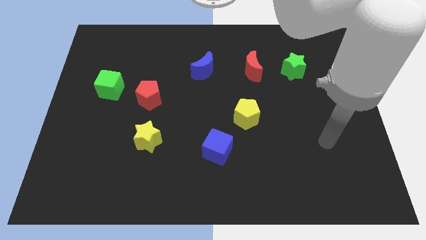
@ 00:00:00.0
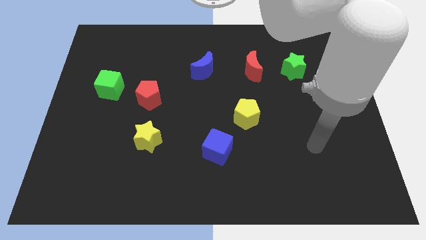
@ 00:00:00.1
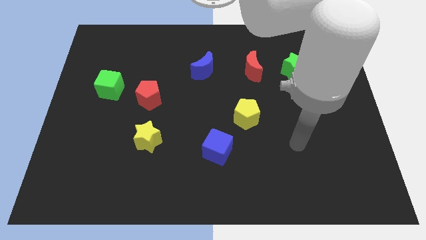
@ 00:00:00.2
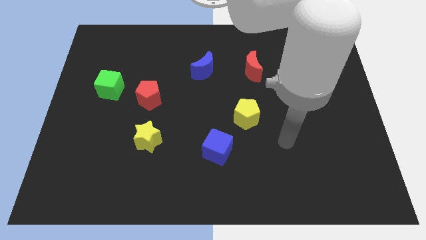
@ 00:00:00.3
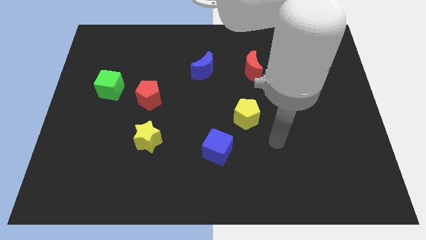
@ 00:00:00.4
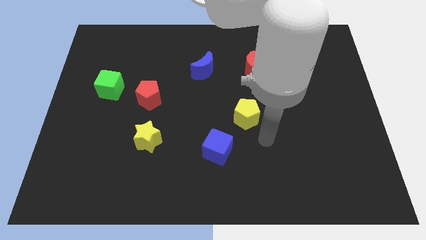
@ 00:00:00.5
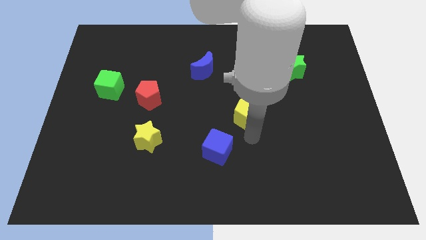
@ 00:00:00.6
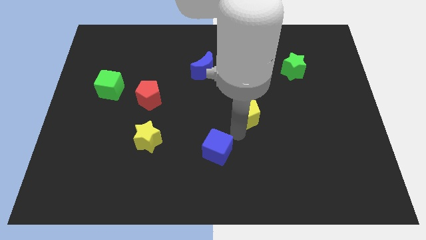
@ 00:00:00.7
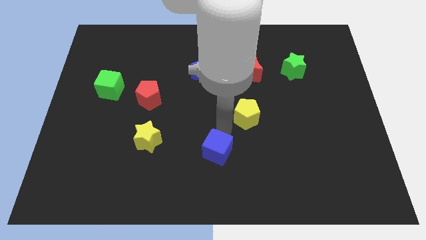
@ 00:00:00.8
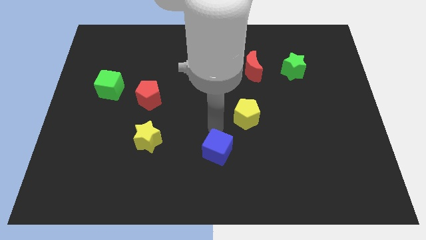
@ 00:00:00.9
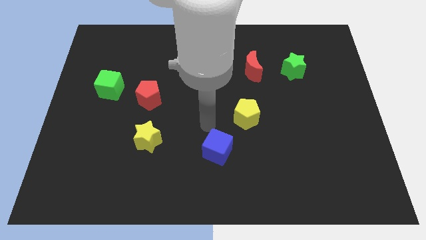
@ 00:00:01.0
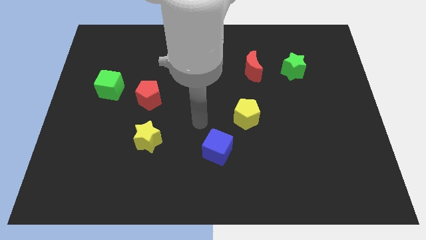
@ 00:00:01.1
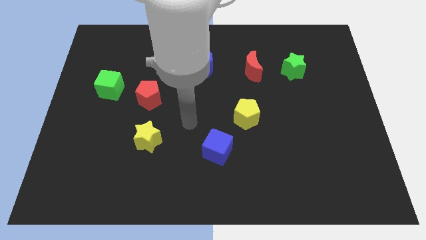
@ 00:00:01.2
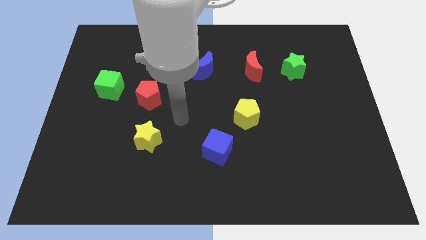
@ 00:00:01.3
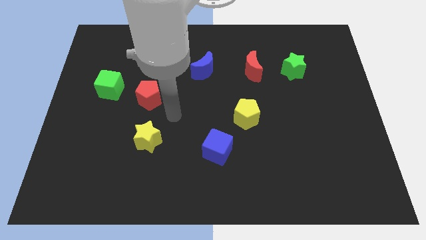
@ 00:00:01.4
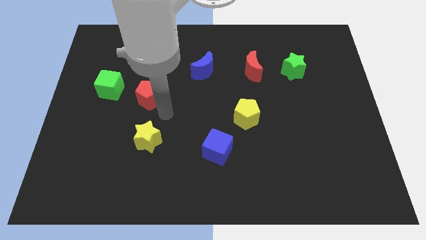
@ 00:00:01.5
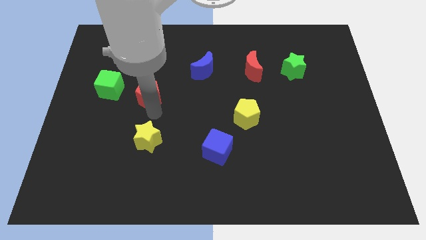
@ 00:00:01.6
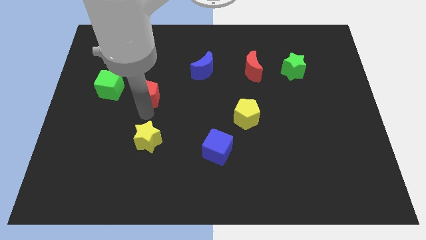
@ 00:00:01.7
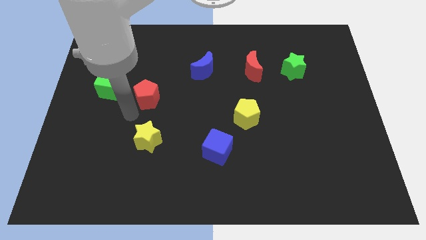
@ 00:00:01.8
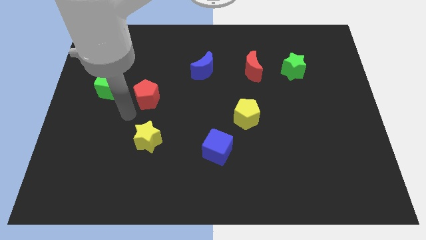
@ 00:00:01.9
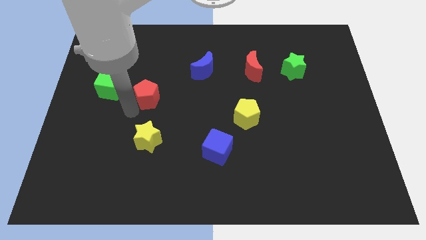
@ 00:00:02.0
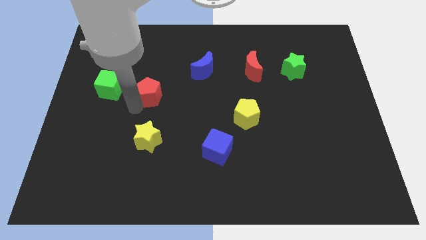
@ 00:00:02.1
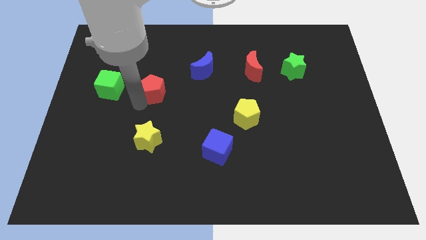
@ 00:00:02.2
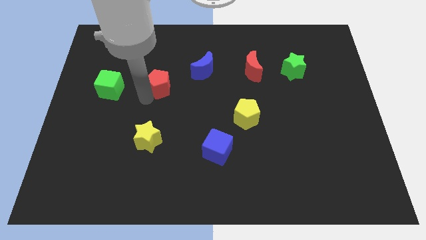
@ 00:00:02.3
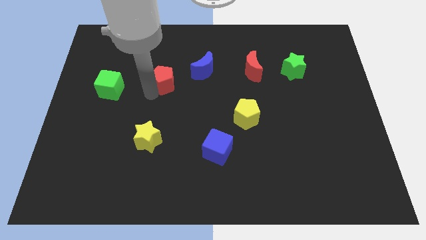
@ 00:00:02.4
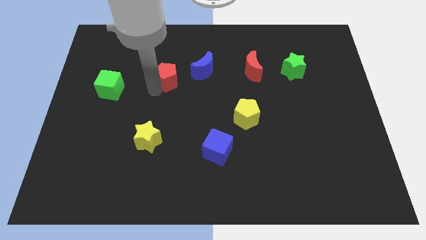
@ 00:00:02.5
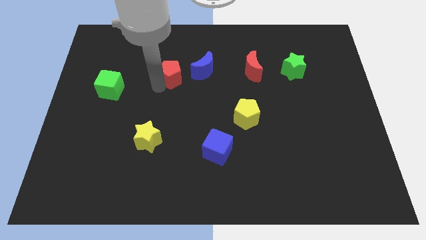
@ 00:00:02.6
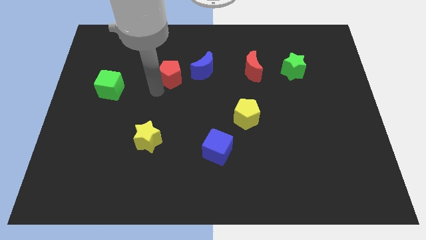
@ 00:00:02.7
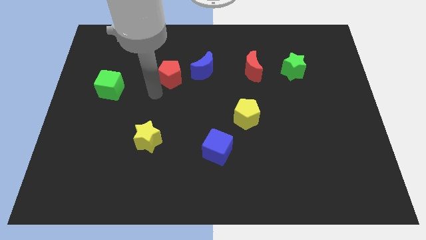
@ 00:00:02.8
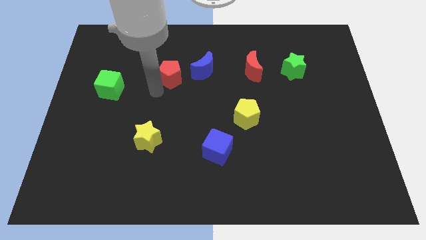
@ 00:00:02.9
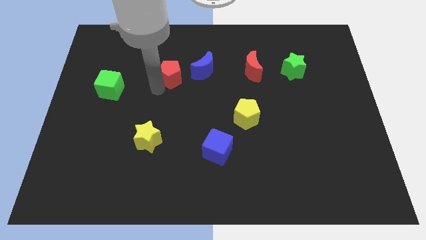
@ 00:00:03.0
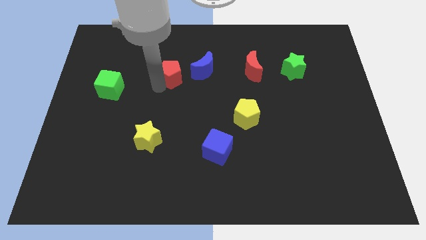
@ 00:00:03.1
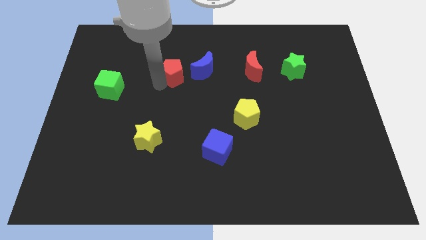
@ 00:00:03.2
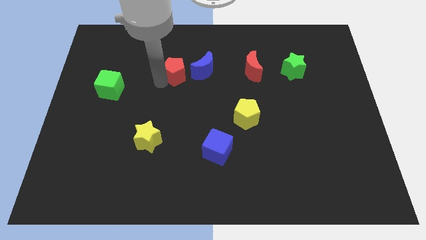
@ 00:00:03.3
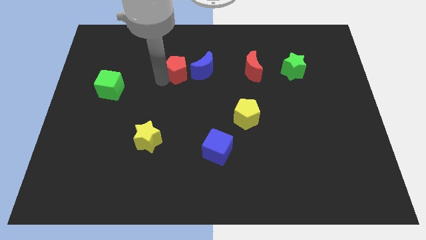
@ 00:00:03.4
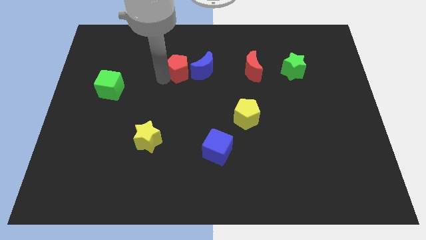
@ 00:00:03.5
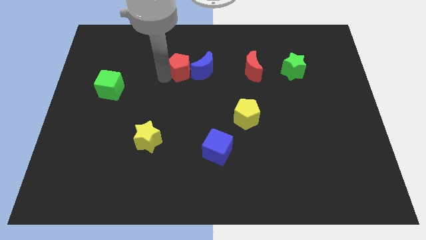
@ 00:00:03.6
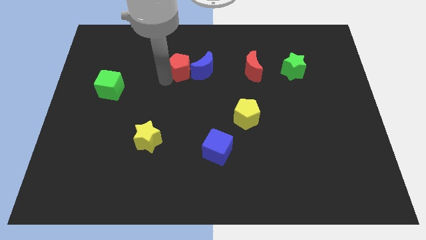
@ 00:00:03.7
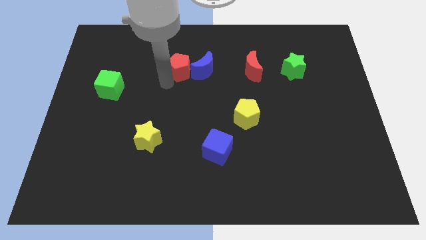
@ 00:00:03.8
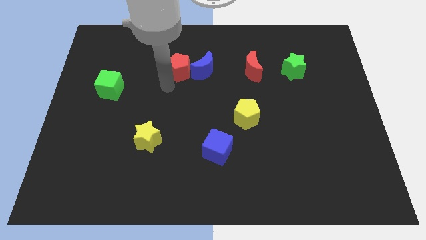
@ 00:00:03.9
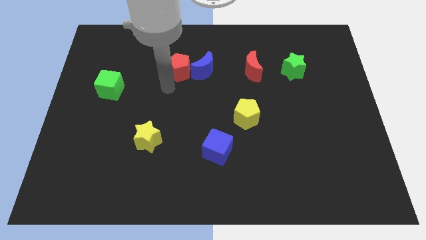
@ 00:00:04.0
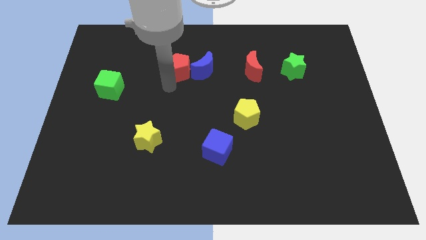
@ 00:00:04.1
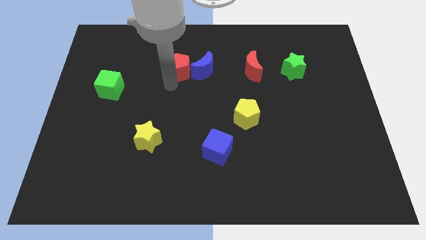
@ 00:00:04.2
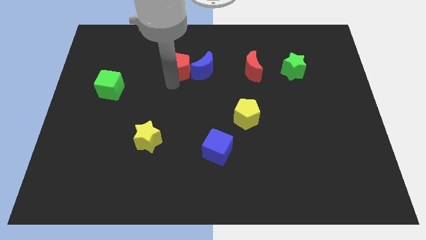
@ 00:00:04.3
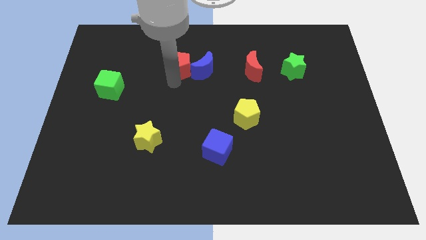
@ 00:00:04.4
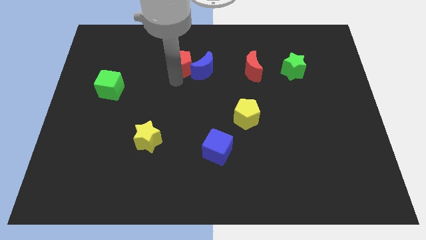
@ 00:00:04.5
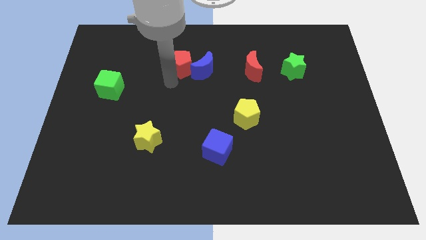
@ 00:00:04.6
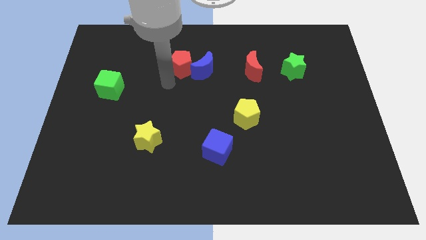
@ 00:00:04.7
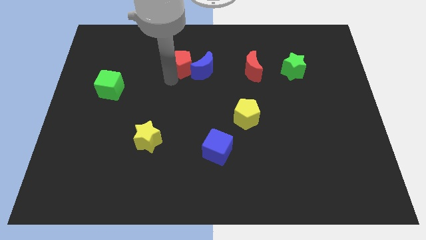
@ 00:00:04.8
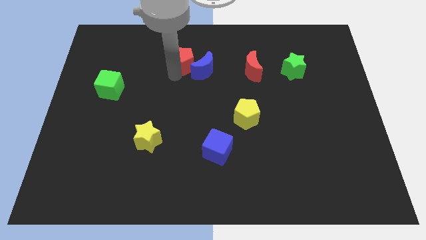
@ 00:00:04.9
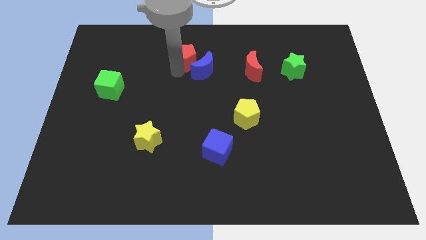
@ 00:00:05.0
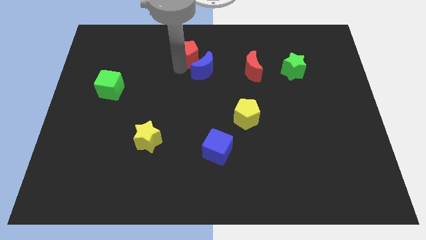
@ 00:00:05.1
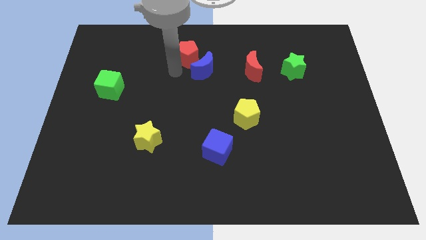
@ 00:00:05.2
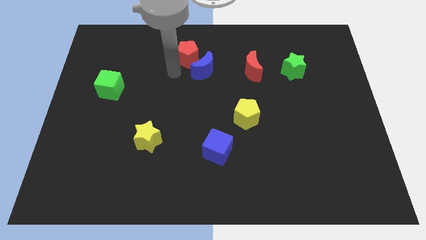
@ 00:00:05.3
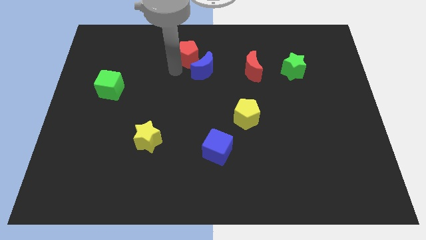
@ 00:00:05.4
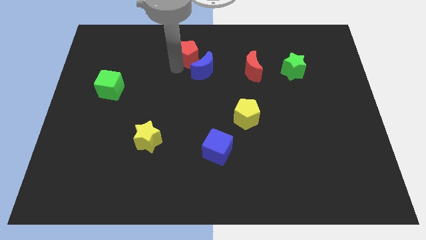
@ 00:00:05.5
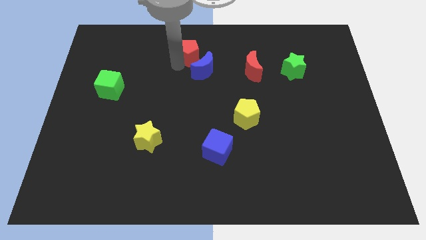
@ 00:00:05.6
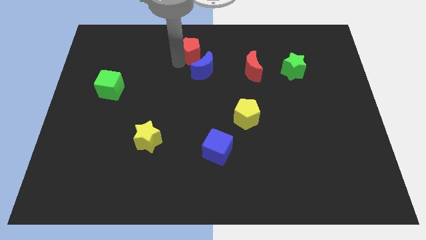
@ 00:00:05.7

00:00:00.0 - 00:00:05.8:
put the red pentagon to the top side

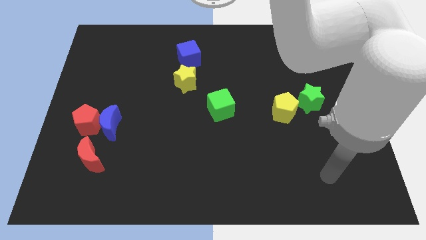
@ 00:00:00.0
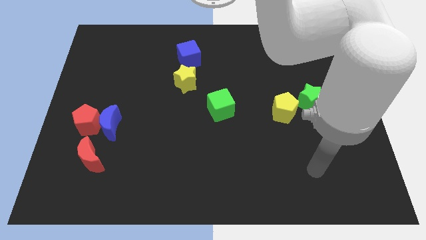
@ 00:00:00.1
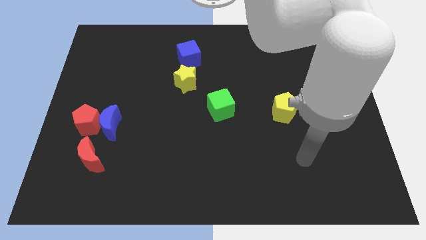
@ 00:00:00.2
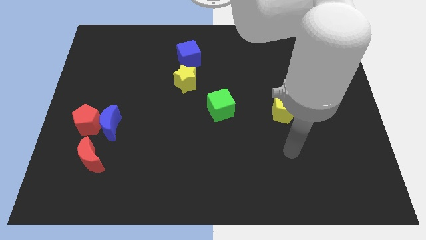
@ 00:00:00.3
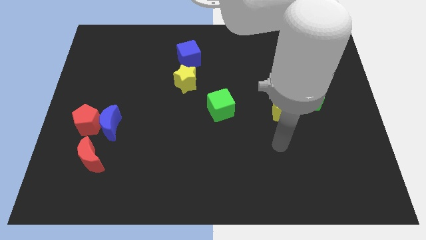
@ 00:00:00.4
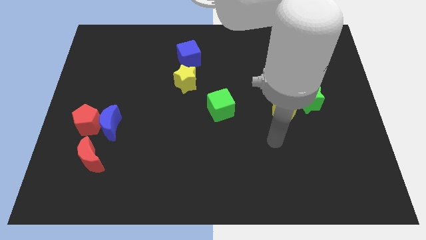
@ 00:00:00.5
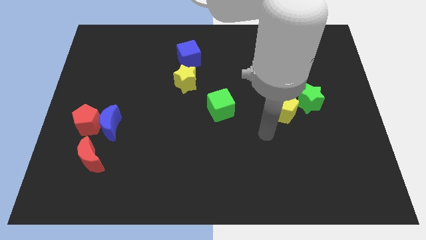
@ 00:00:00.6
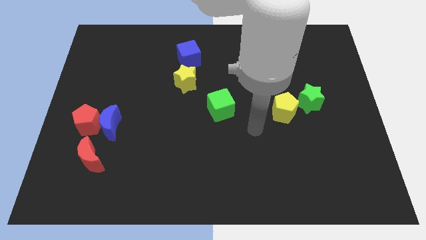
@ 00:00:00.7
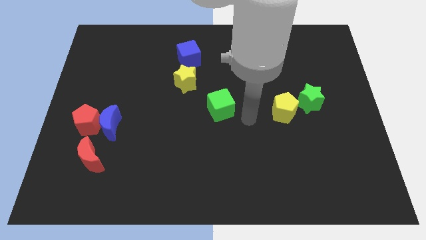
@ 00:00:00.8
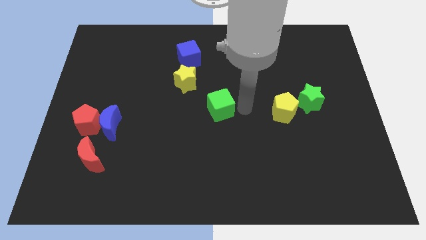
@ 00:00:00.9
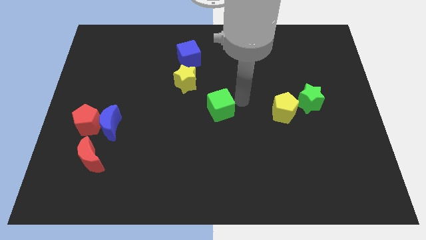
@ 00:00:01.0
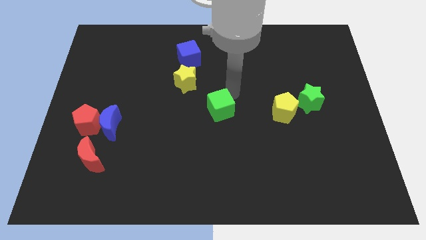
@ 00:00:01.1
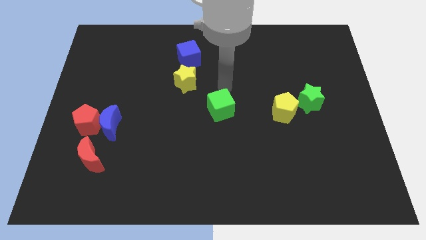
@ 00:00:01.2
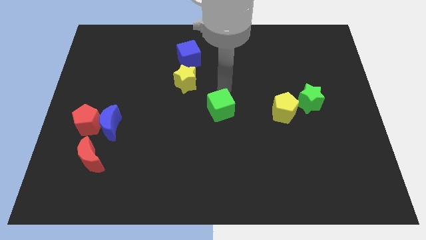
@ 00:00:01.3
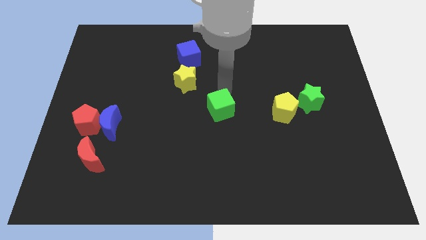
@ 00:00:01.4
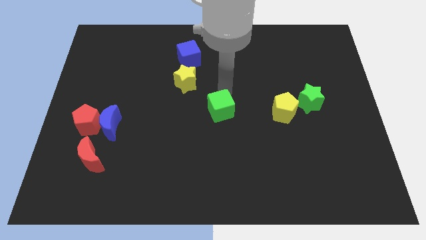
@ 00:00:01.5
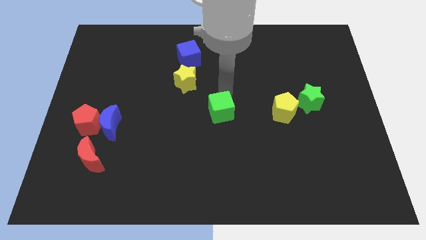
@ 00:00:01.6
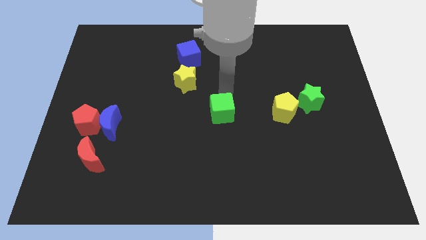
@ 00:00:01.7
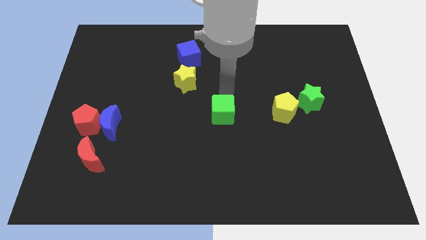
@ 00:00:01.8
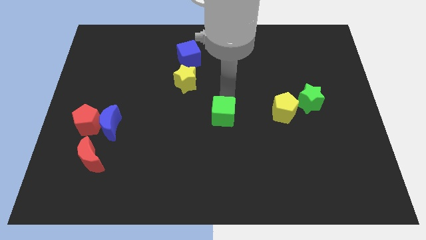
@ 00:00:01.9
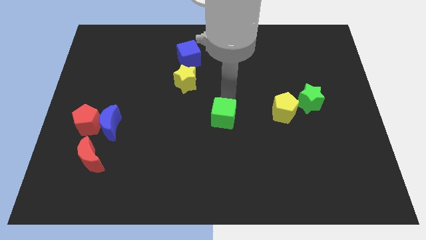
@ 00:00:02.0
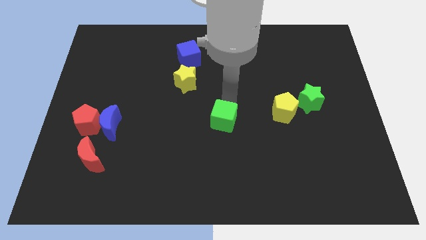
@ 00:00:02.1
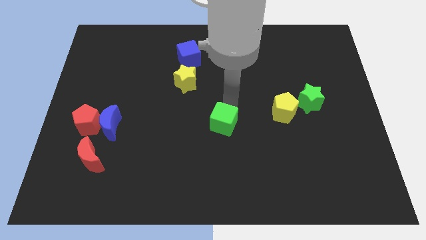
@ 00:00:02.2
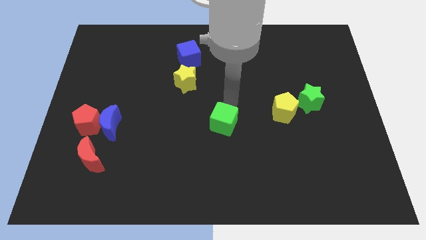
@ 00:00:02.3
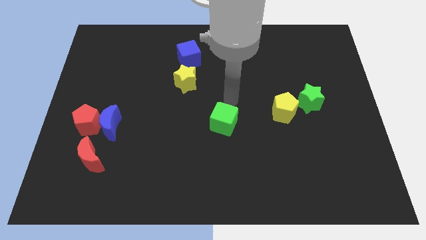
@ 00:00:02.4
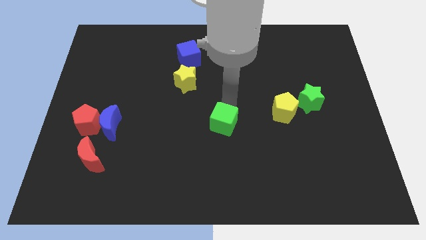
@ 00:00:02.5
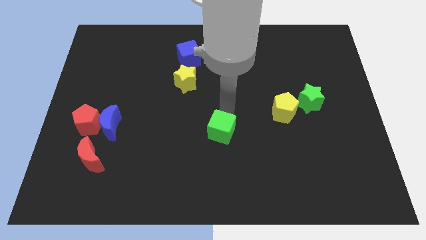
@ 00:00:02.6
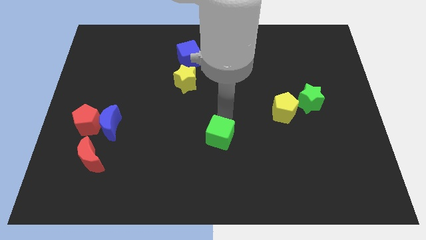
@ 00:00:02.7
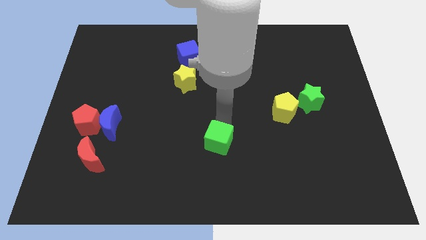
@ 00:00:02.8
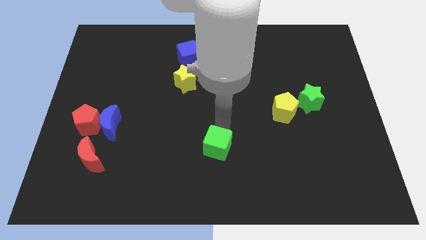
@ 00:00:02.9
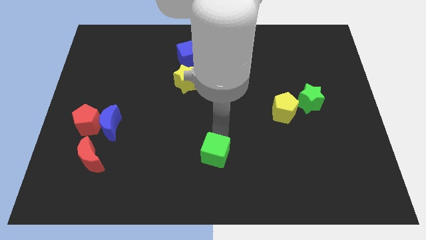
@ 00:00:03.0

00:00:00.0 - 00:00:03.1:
move the green cube to the bottom side
